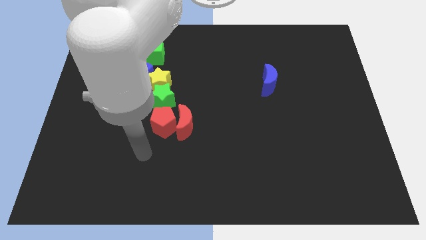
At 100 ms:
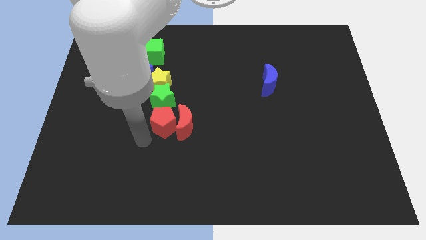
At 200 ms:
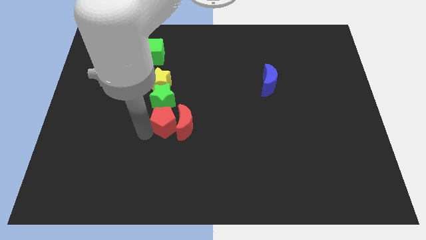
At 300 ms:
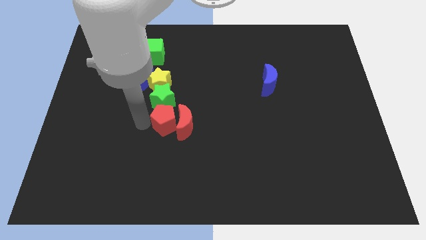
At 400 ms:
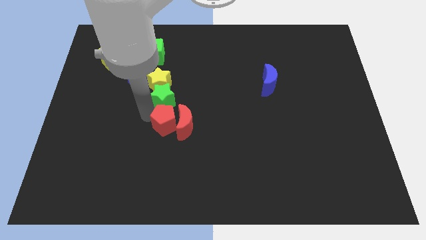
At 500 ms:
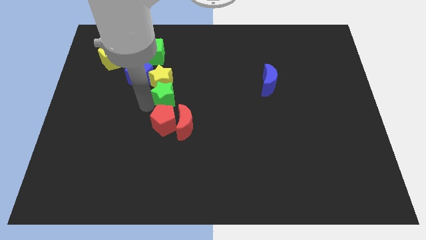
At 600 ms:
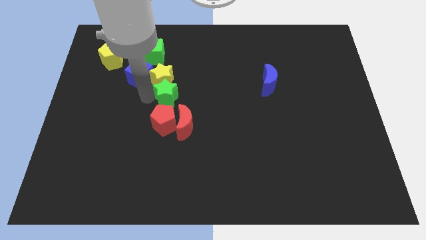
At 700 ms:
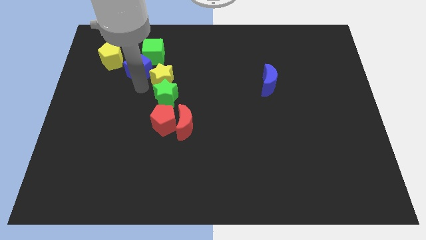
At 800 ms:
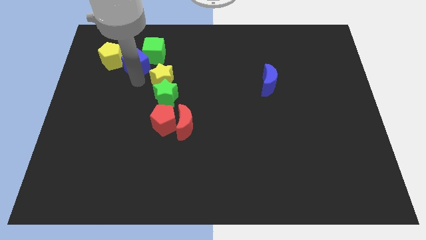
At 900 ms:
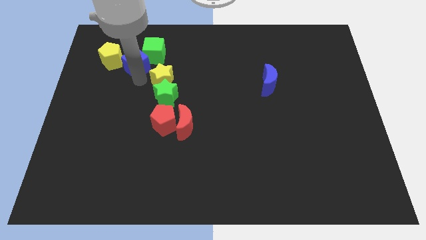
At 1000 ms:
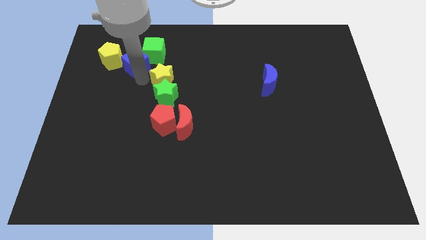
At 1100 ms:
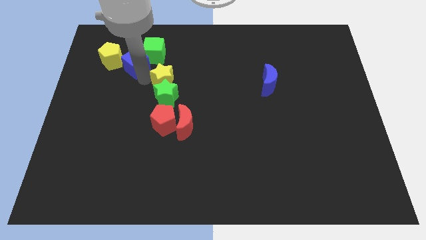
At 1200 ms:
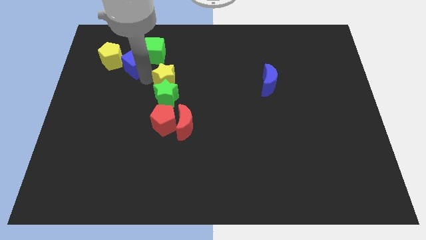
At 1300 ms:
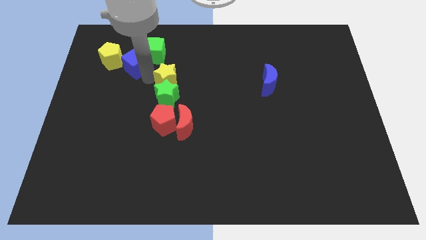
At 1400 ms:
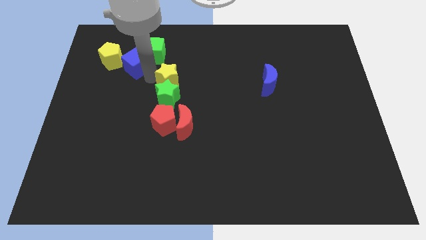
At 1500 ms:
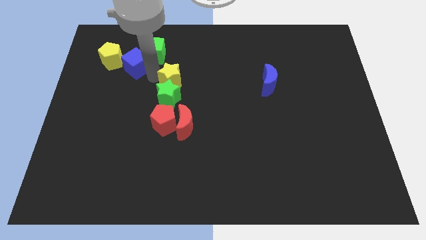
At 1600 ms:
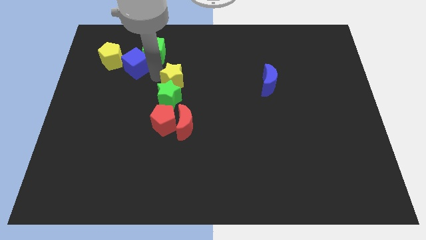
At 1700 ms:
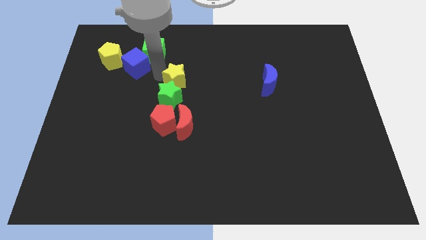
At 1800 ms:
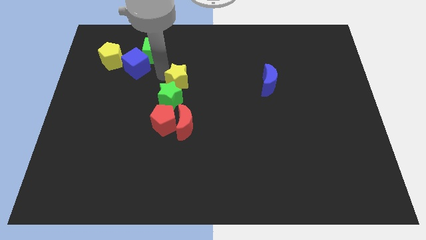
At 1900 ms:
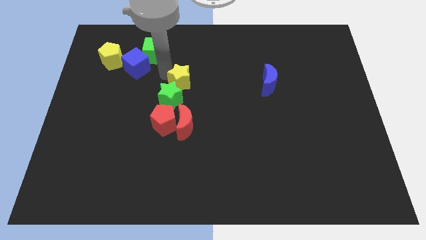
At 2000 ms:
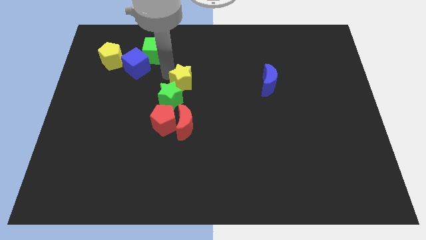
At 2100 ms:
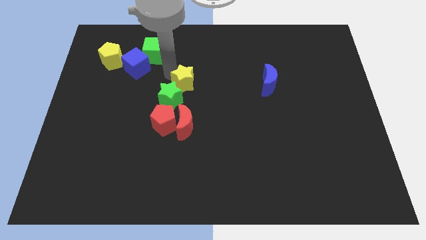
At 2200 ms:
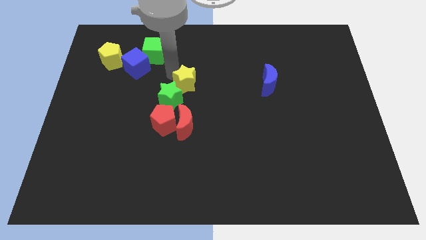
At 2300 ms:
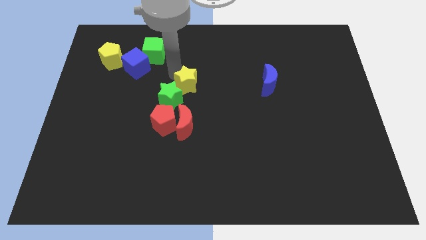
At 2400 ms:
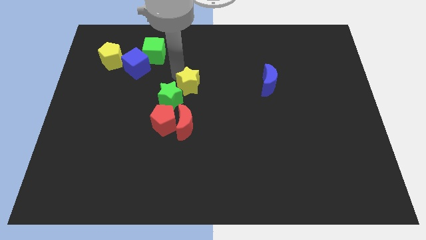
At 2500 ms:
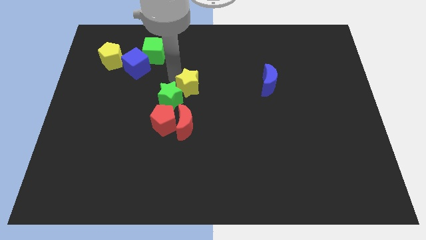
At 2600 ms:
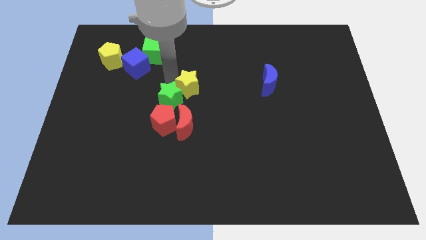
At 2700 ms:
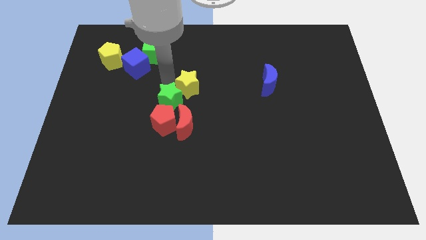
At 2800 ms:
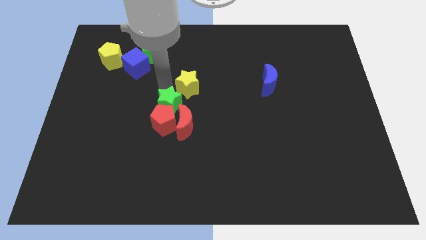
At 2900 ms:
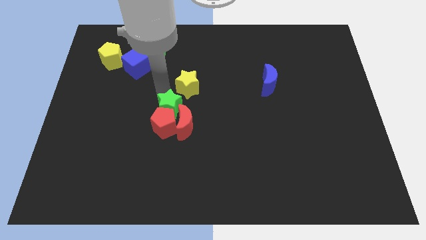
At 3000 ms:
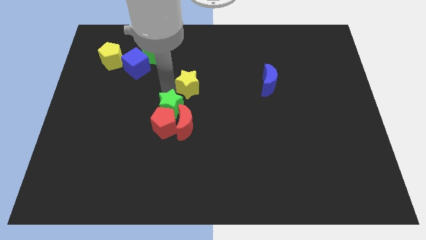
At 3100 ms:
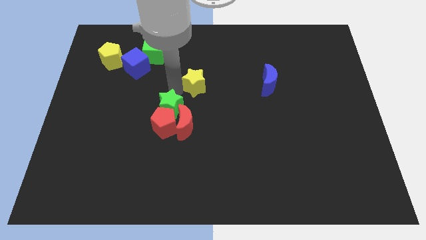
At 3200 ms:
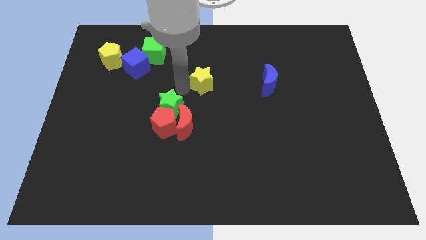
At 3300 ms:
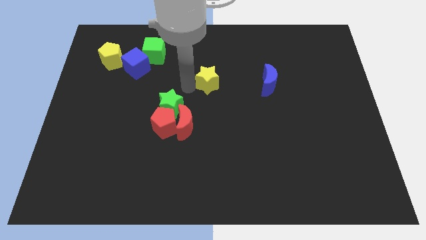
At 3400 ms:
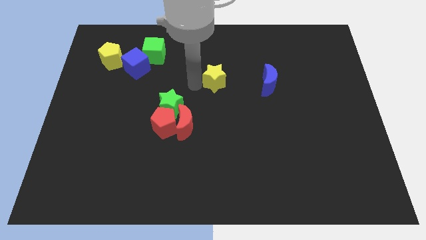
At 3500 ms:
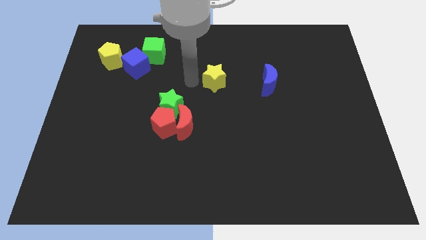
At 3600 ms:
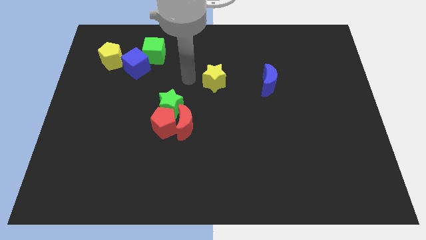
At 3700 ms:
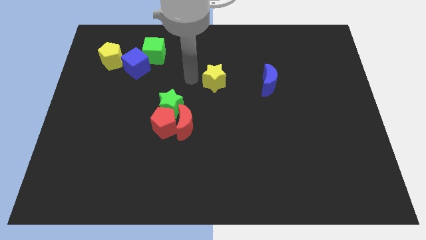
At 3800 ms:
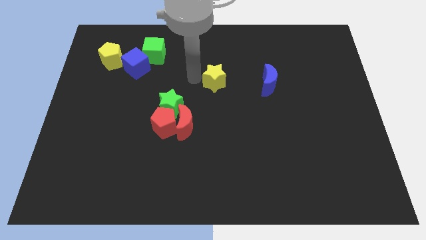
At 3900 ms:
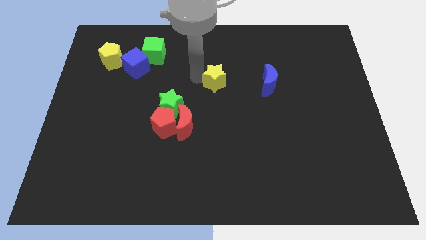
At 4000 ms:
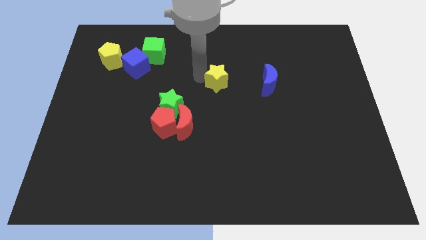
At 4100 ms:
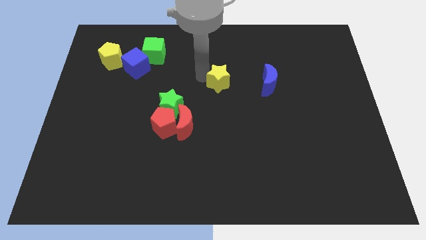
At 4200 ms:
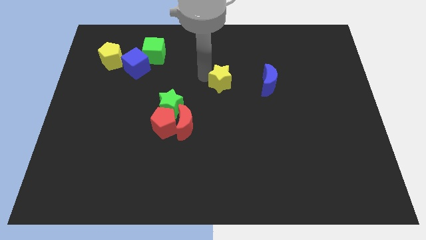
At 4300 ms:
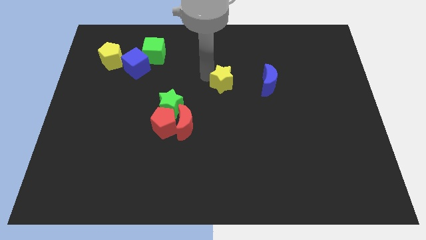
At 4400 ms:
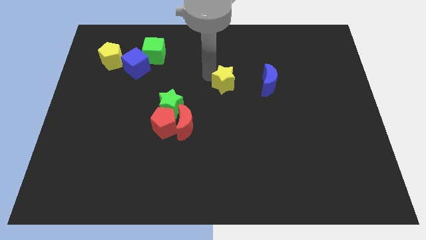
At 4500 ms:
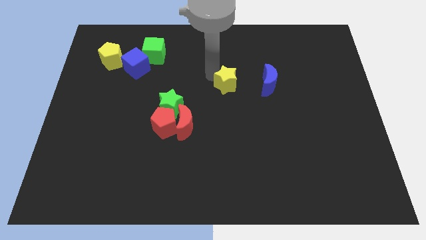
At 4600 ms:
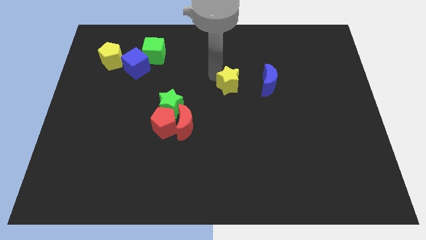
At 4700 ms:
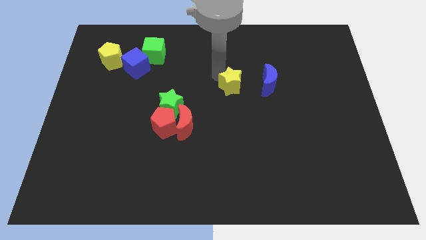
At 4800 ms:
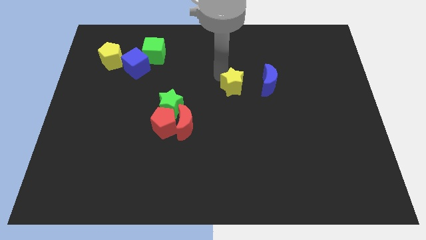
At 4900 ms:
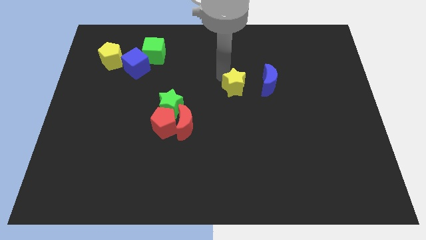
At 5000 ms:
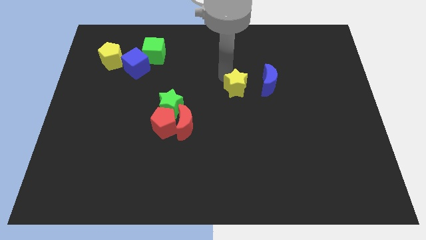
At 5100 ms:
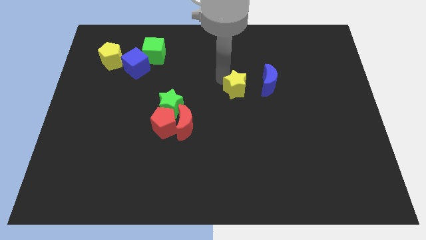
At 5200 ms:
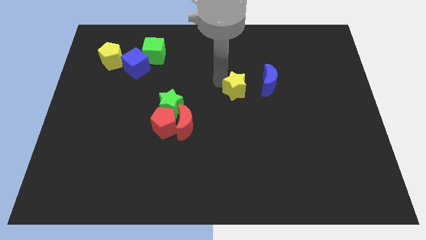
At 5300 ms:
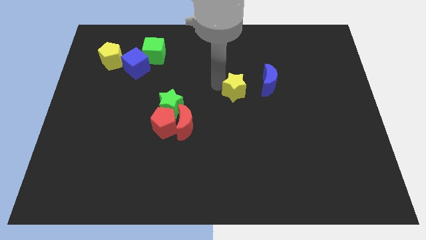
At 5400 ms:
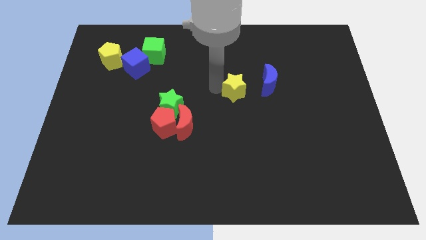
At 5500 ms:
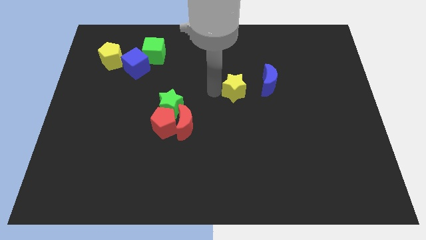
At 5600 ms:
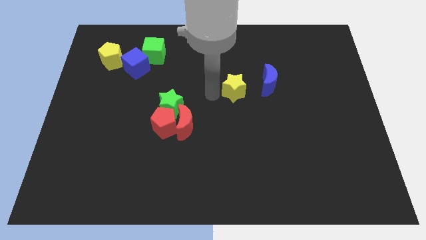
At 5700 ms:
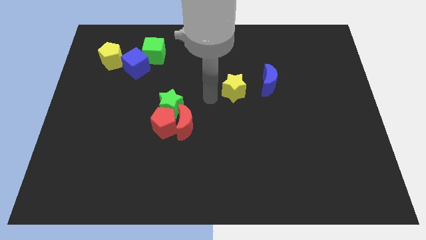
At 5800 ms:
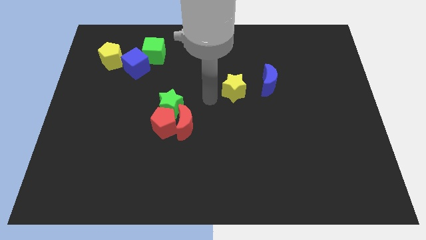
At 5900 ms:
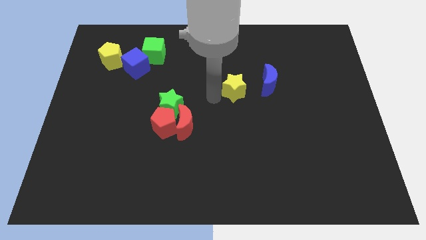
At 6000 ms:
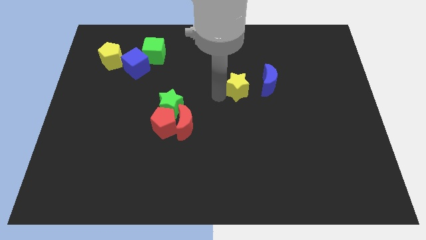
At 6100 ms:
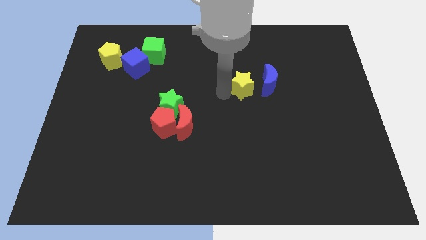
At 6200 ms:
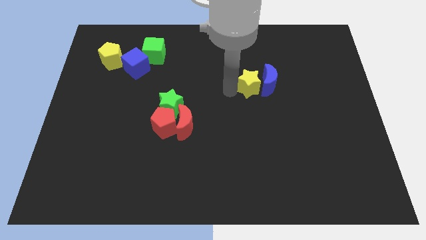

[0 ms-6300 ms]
push the yellow star towards the blue moon

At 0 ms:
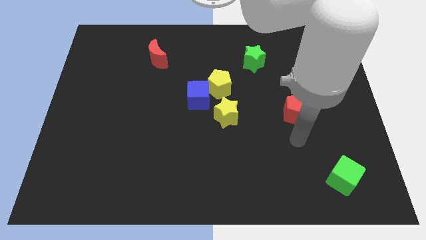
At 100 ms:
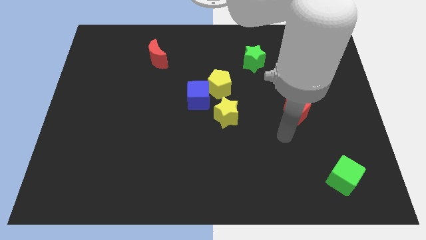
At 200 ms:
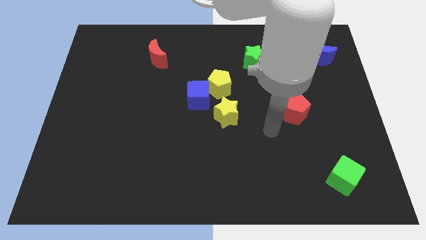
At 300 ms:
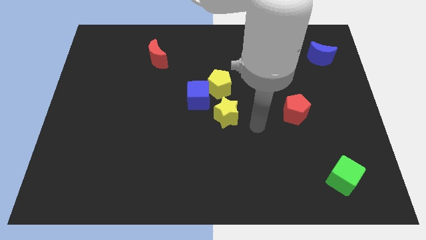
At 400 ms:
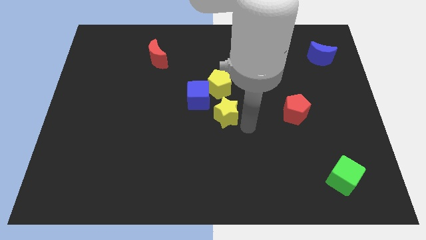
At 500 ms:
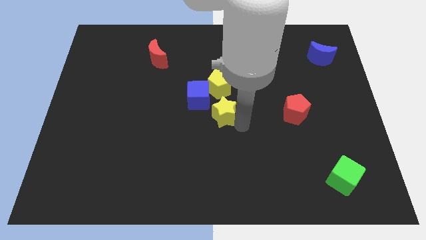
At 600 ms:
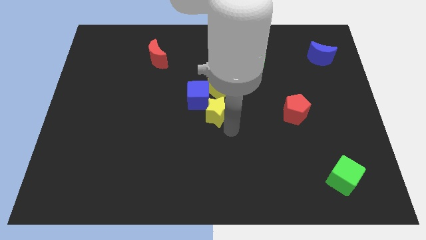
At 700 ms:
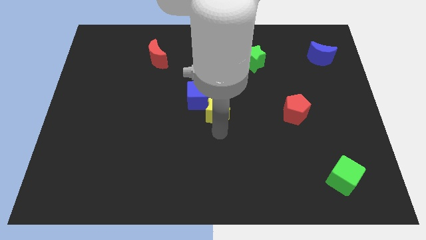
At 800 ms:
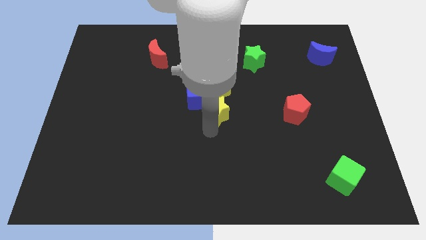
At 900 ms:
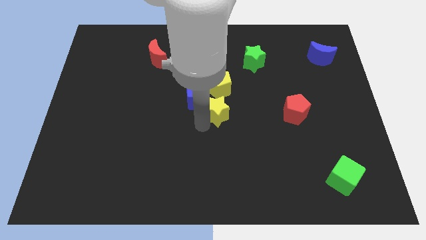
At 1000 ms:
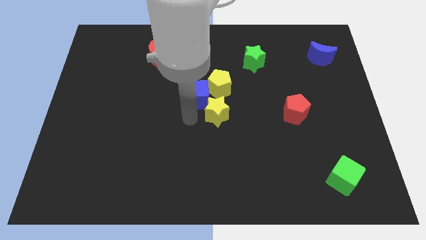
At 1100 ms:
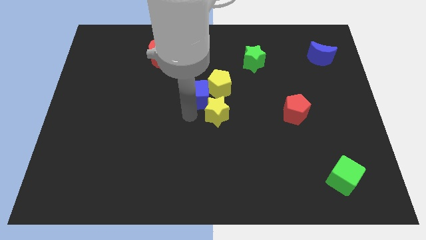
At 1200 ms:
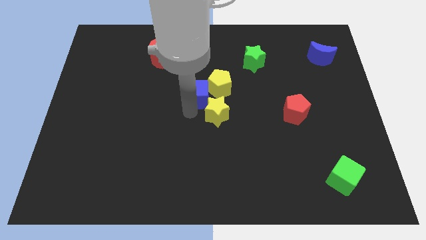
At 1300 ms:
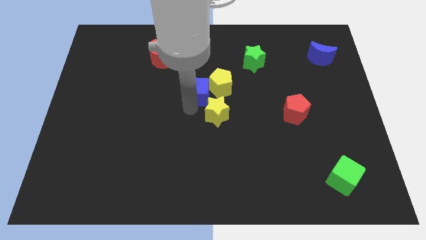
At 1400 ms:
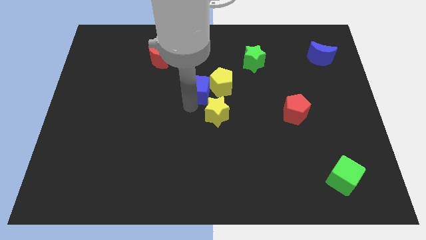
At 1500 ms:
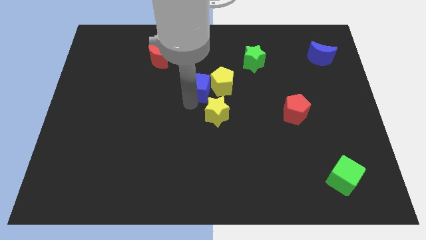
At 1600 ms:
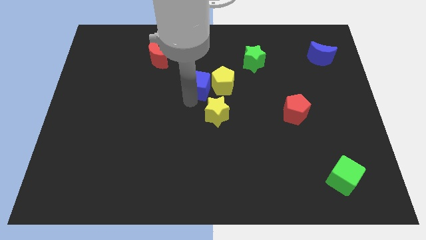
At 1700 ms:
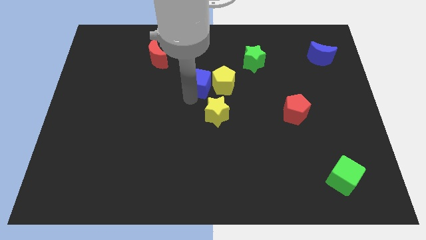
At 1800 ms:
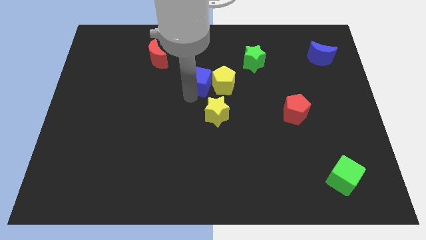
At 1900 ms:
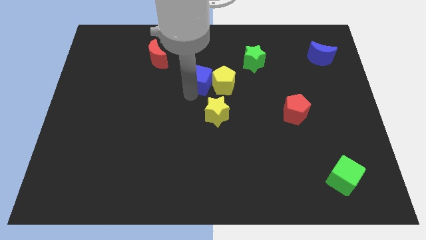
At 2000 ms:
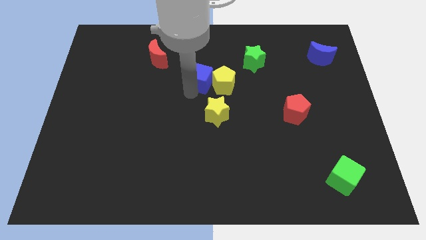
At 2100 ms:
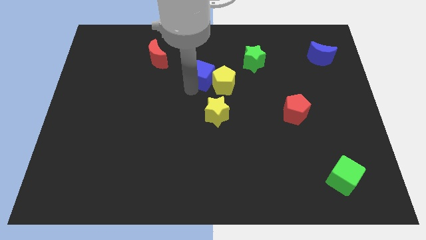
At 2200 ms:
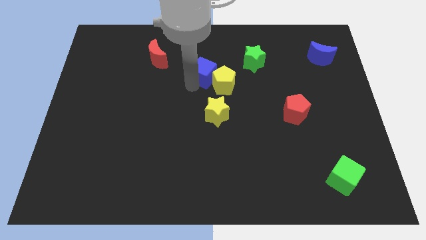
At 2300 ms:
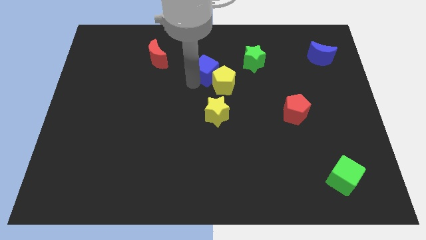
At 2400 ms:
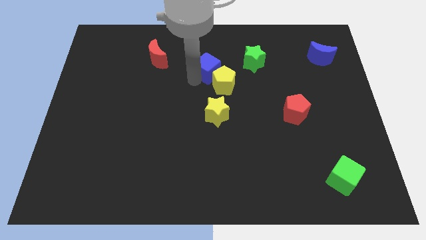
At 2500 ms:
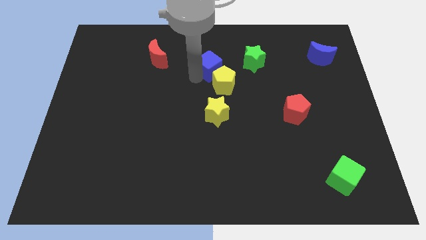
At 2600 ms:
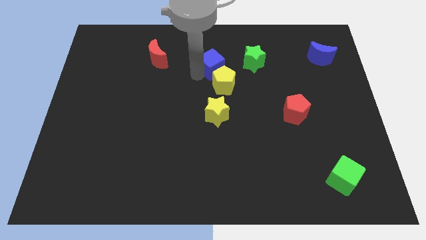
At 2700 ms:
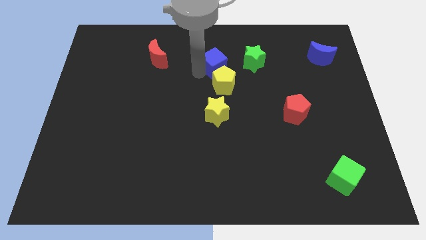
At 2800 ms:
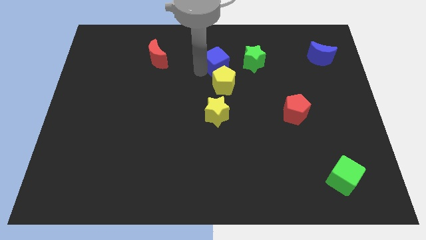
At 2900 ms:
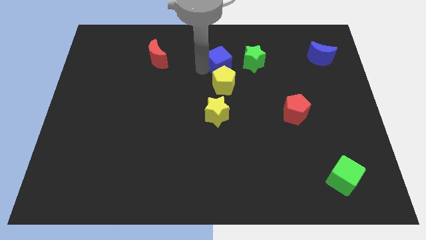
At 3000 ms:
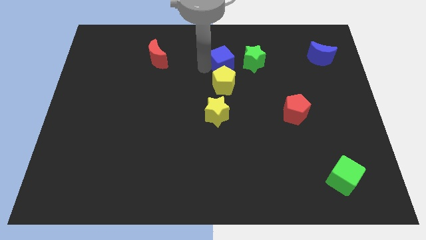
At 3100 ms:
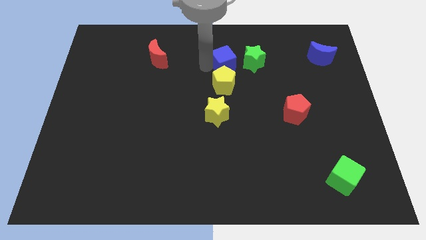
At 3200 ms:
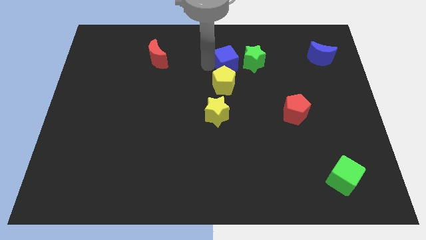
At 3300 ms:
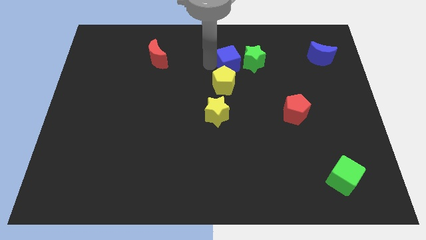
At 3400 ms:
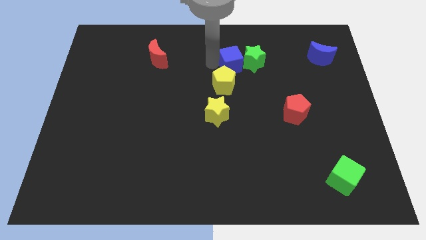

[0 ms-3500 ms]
move the blue cube towards the green star
